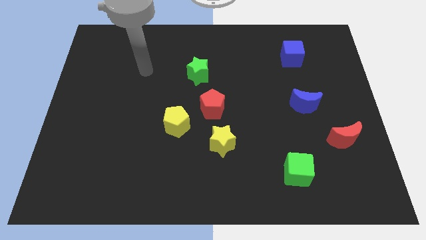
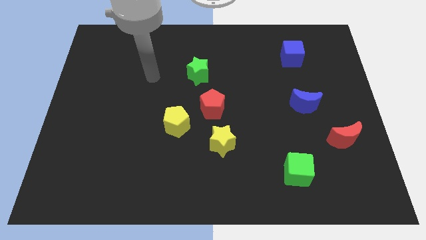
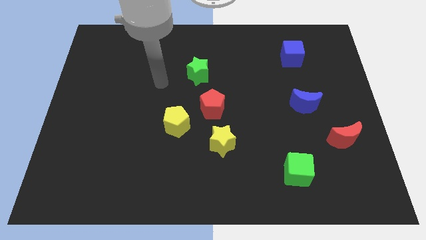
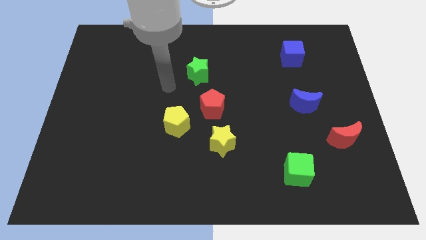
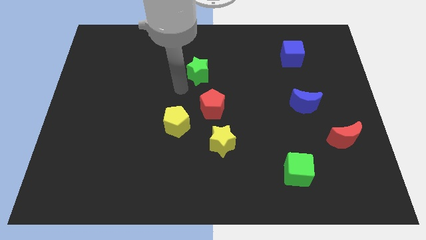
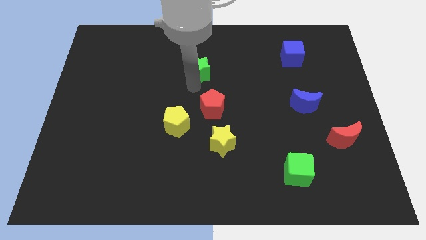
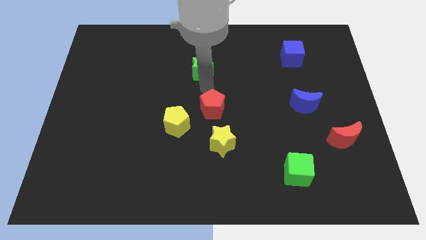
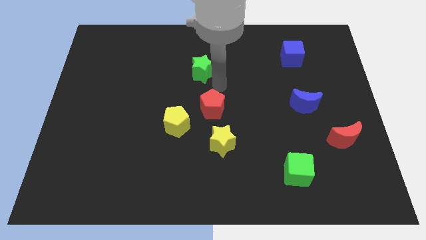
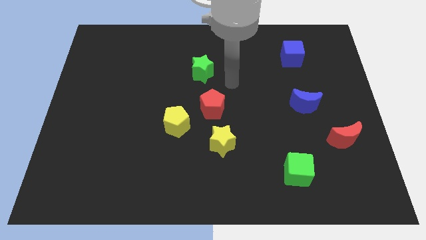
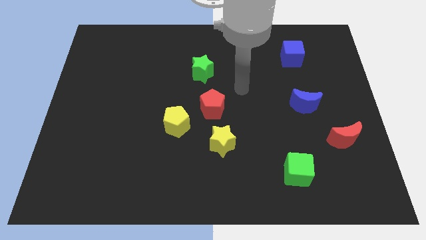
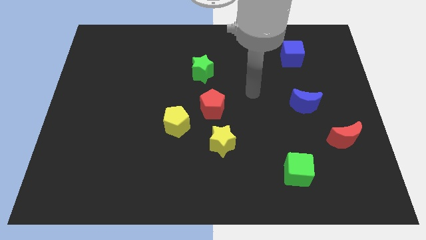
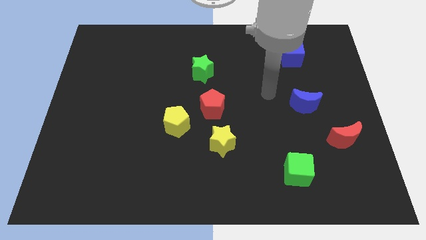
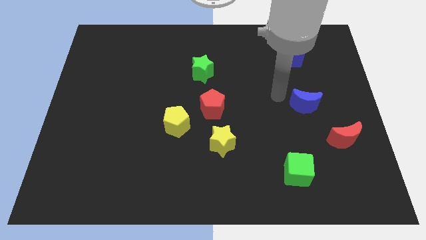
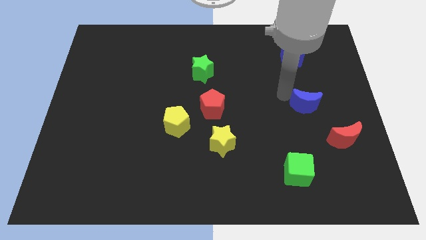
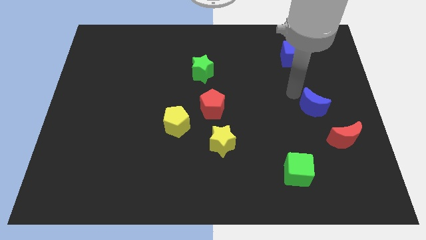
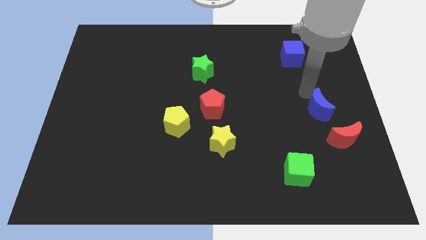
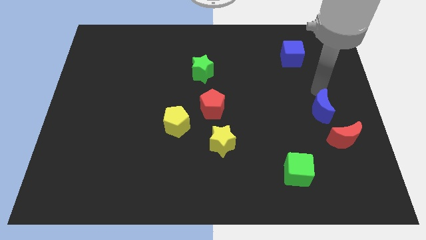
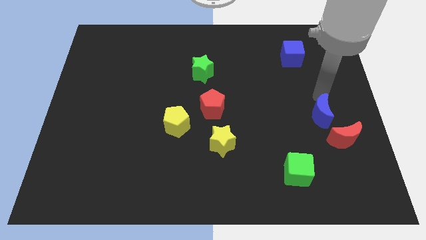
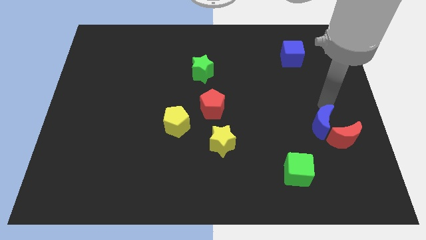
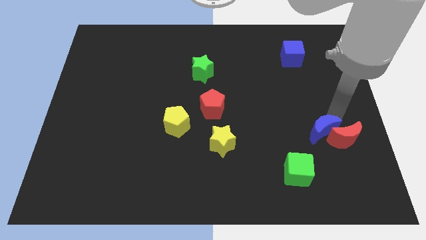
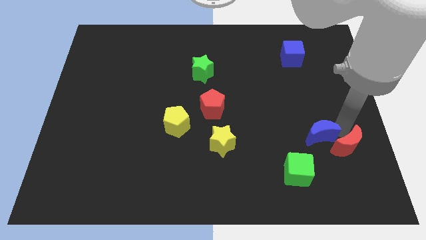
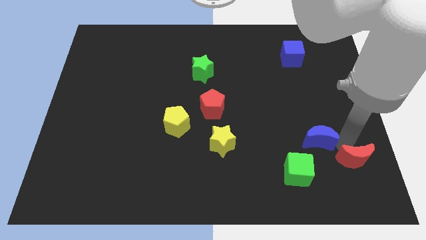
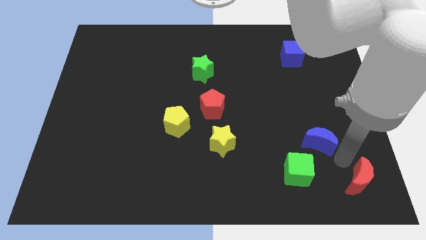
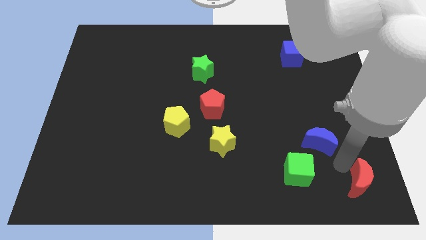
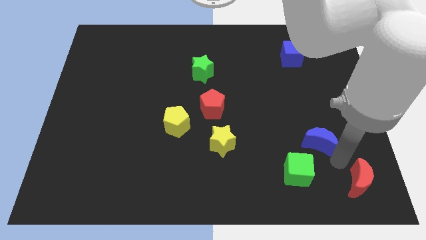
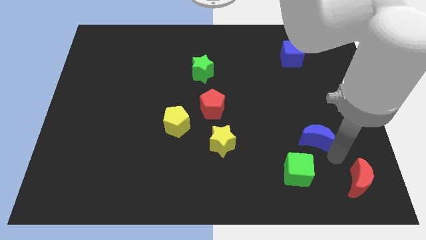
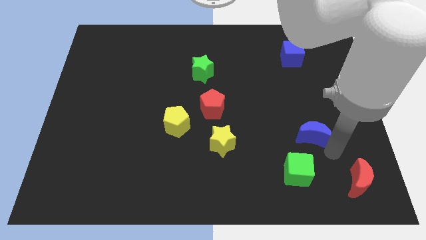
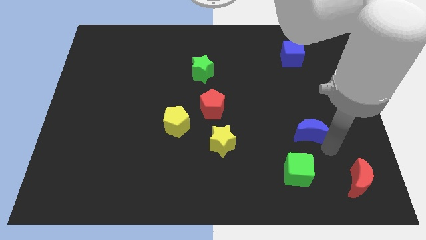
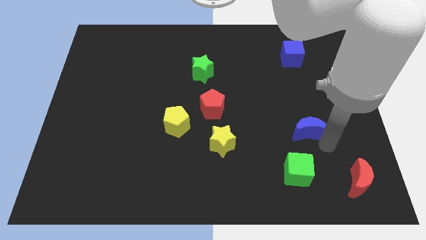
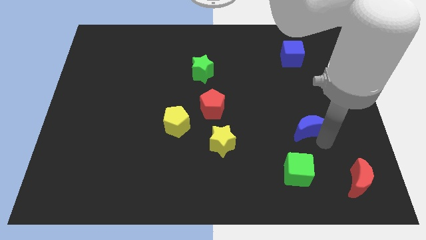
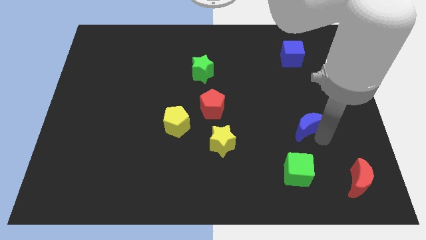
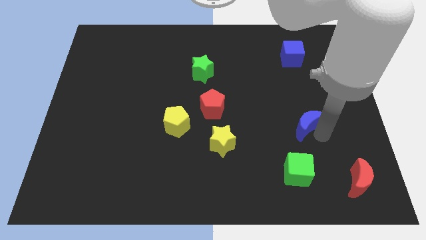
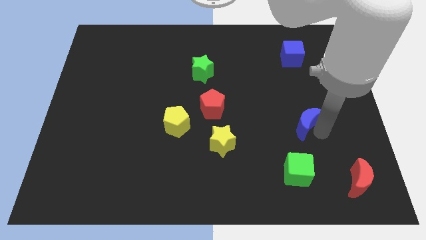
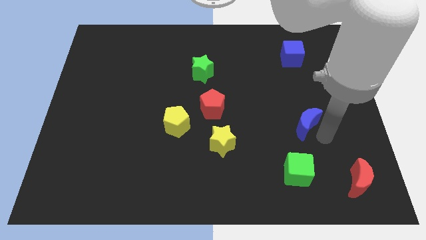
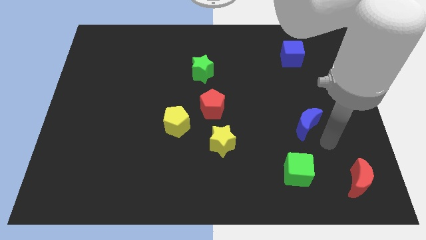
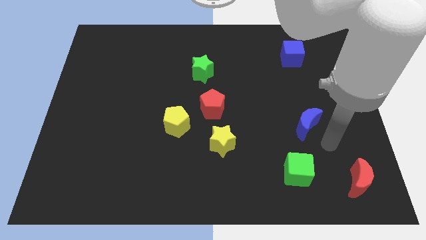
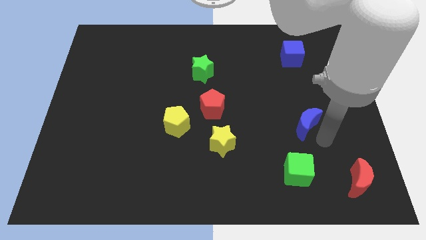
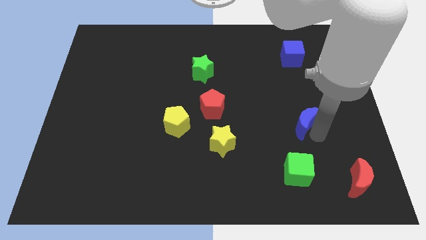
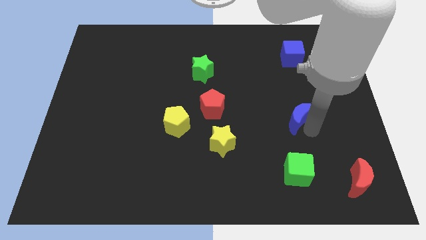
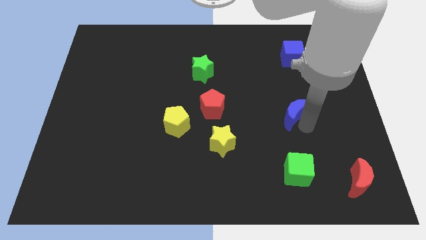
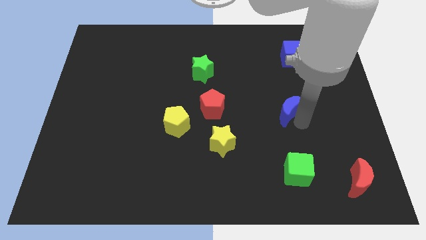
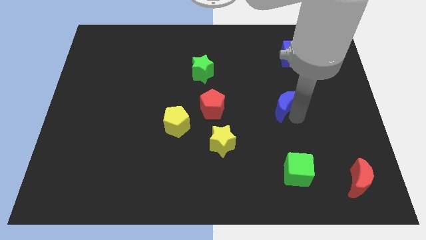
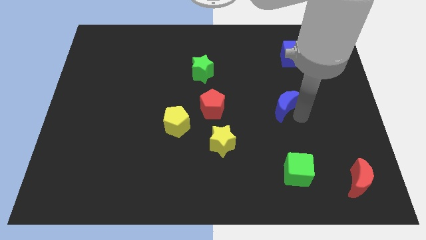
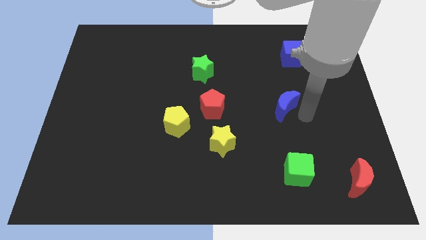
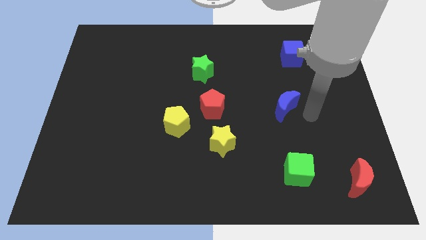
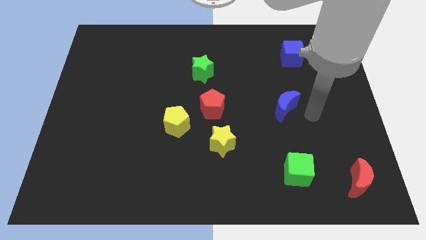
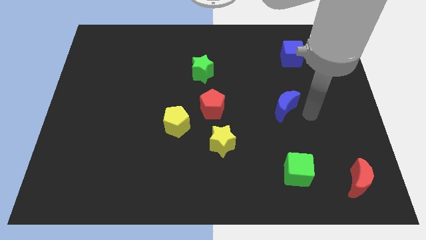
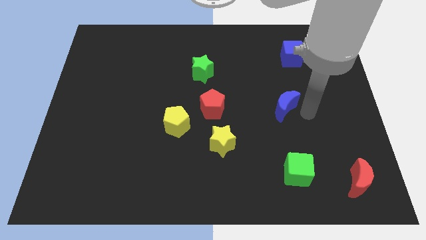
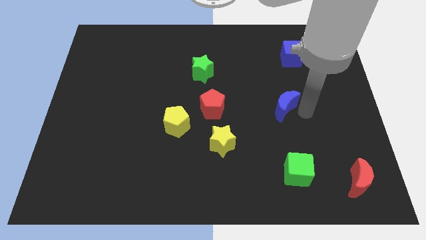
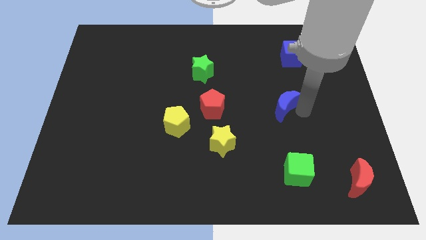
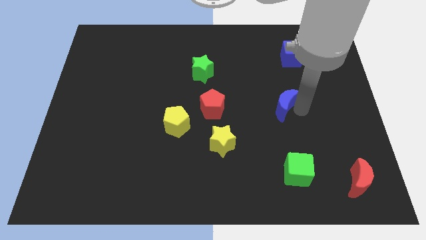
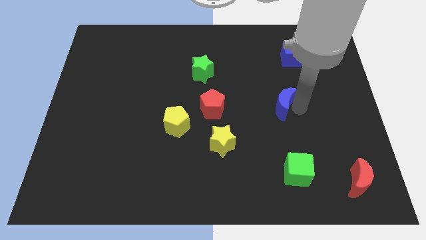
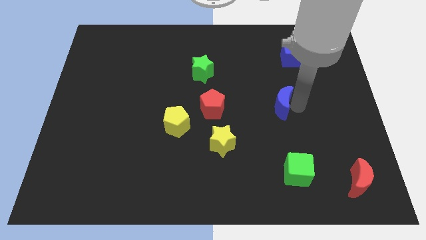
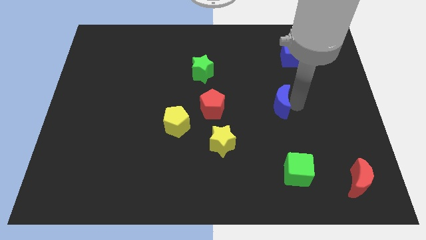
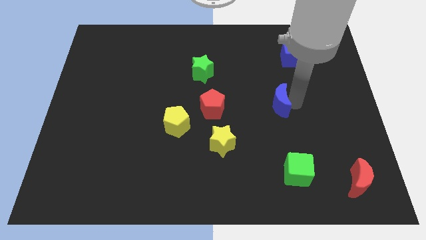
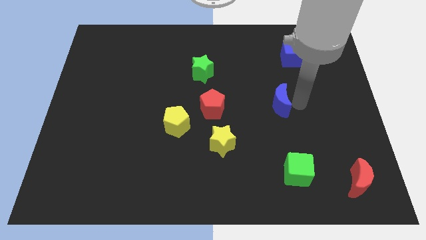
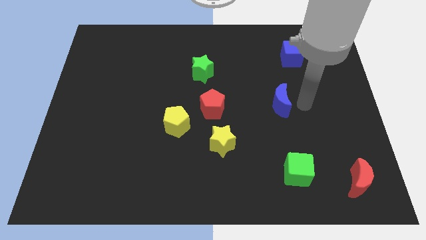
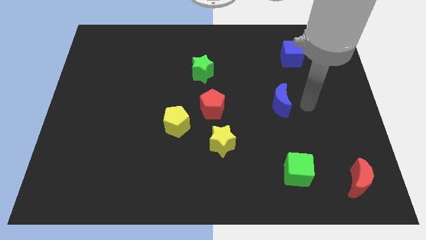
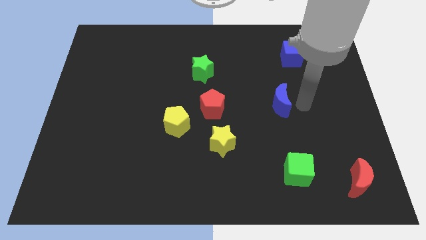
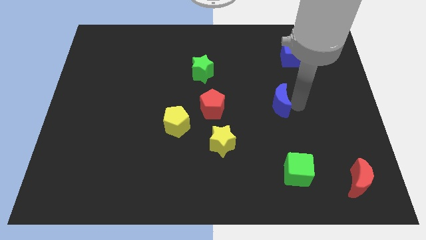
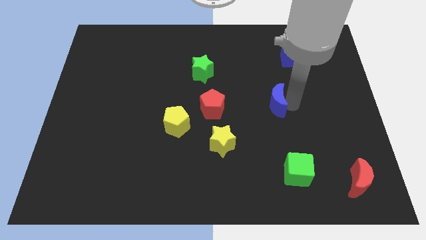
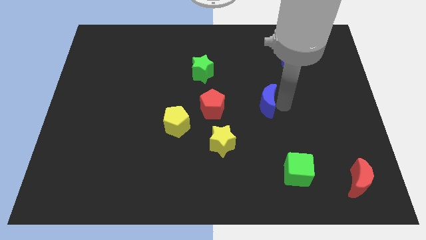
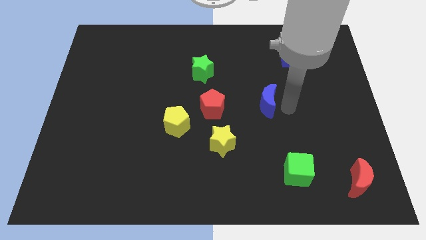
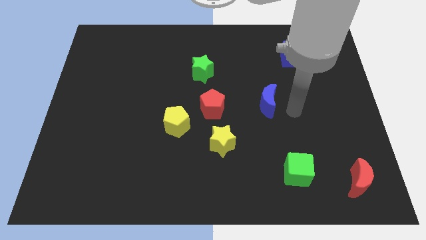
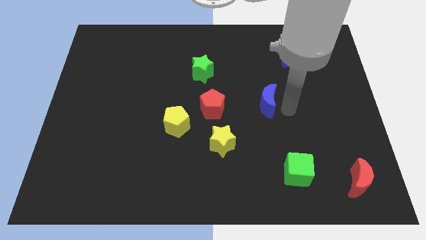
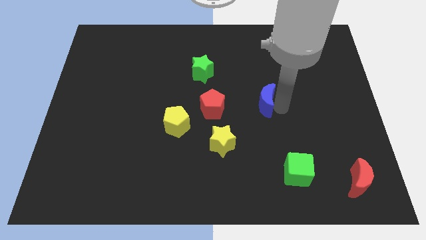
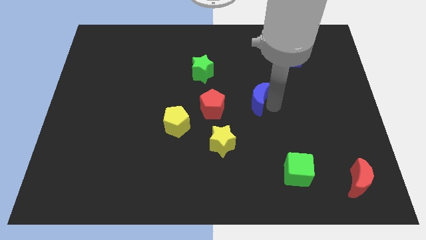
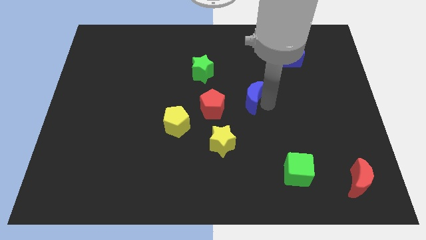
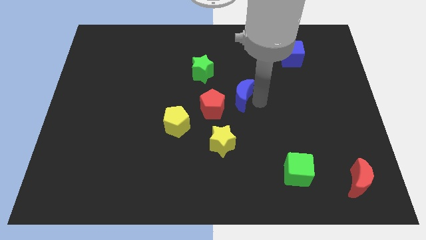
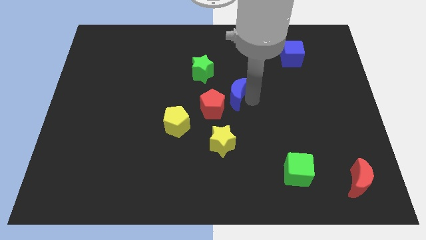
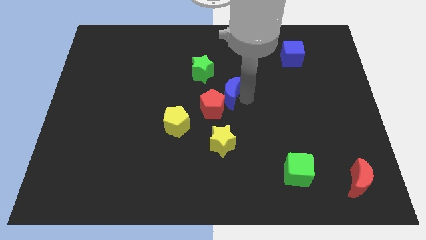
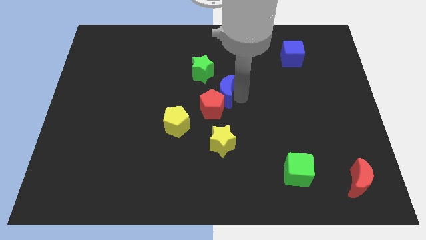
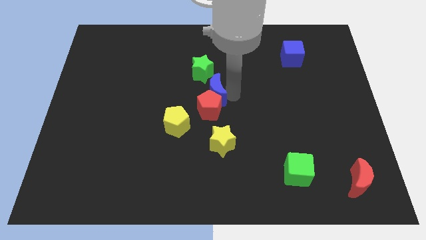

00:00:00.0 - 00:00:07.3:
slide the blue moon to the top left side of the red pentagon
